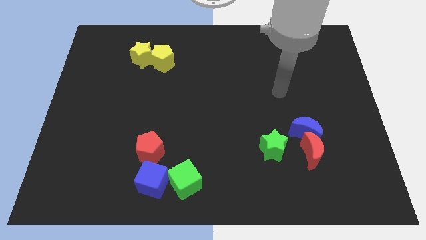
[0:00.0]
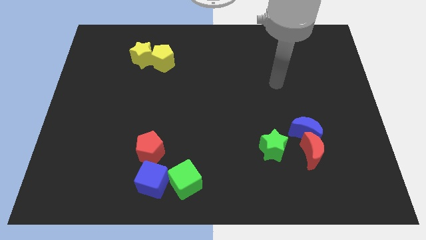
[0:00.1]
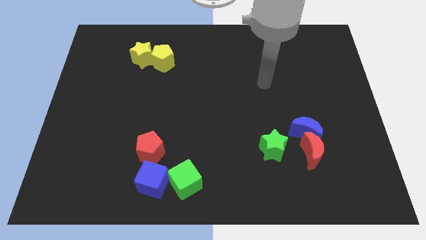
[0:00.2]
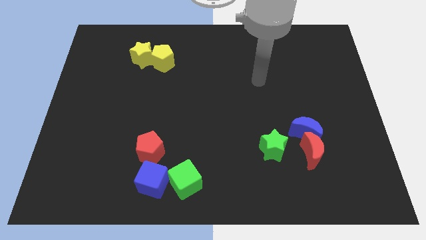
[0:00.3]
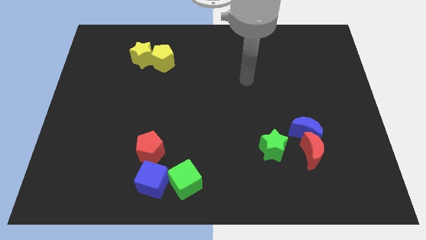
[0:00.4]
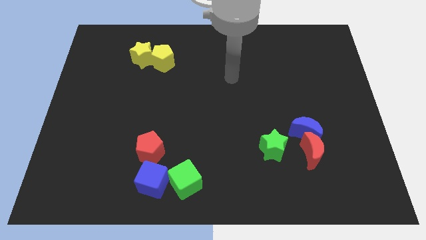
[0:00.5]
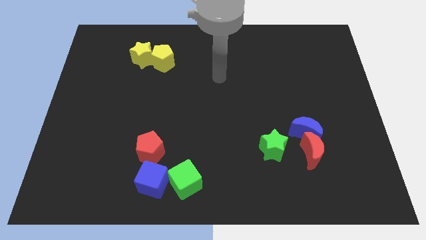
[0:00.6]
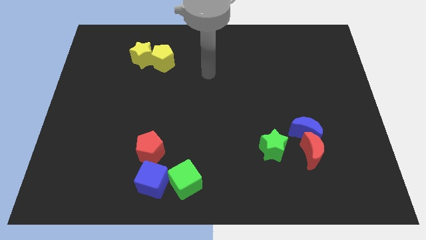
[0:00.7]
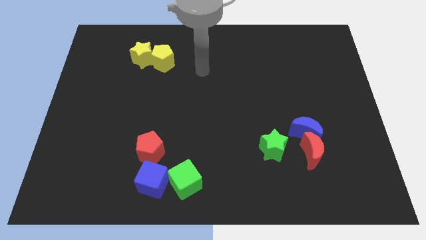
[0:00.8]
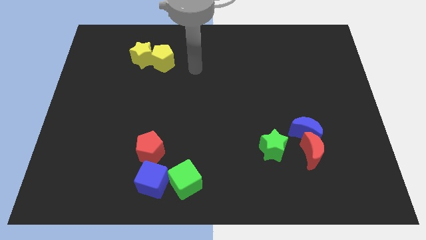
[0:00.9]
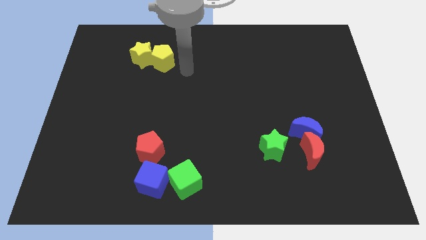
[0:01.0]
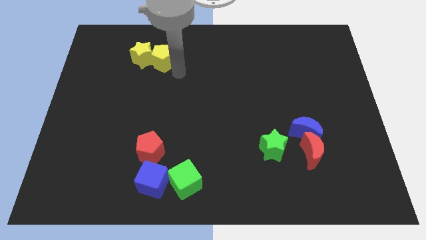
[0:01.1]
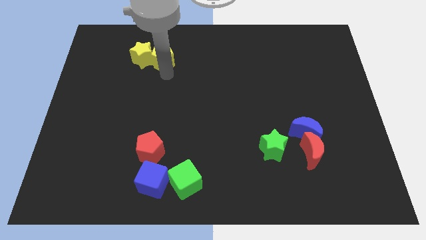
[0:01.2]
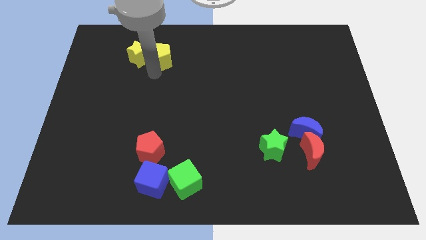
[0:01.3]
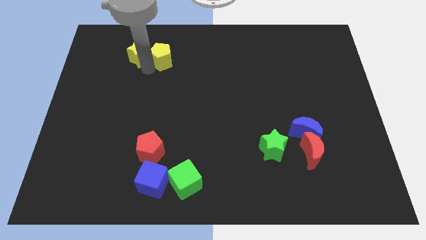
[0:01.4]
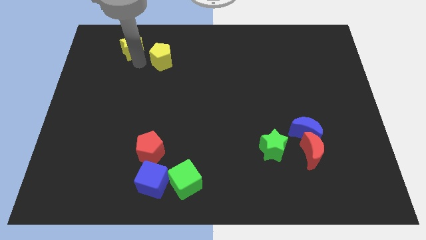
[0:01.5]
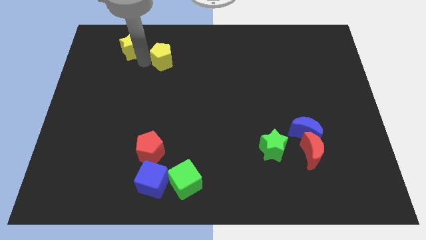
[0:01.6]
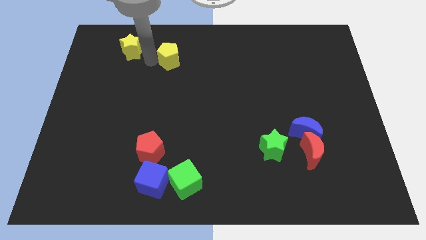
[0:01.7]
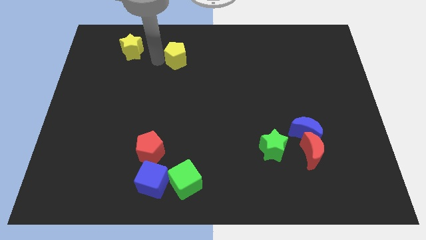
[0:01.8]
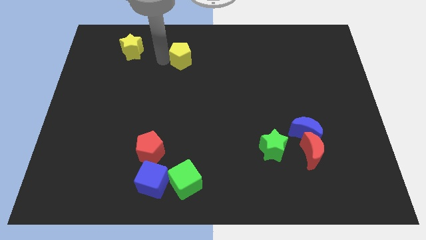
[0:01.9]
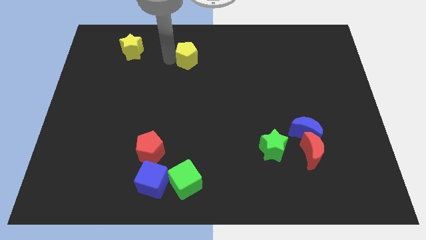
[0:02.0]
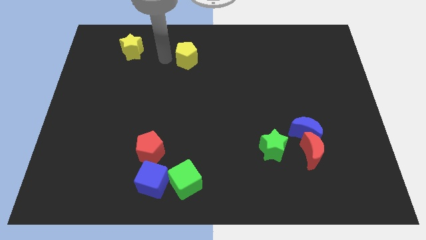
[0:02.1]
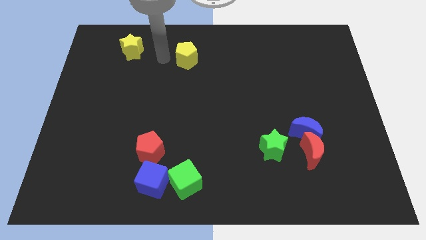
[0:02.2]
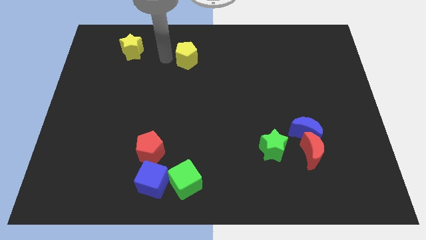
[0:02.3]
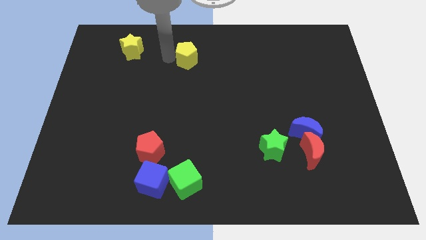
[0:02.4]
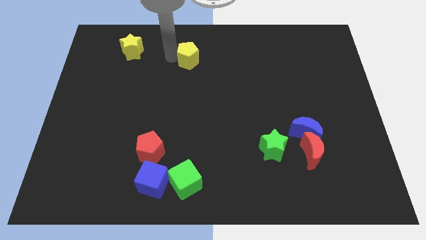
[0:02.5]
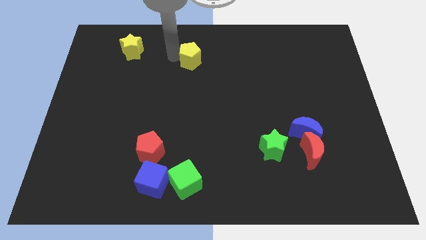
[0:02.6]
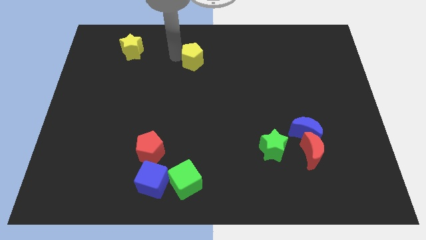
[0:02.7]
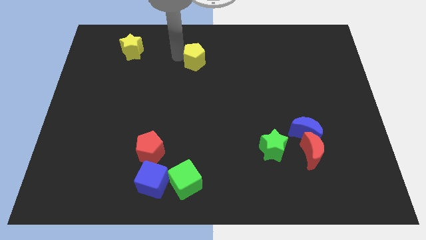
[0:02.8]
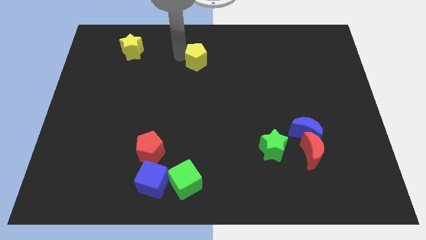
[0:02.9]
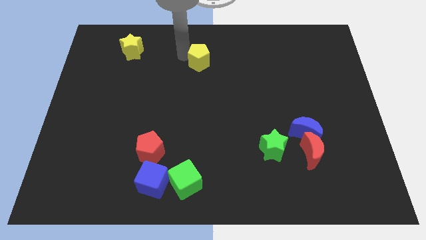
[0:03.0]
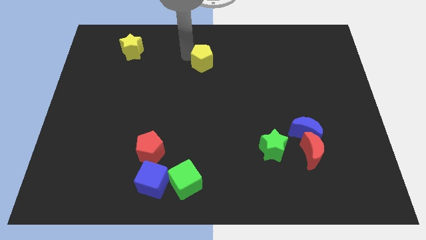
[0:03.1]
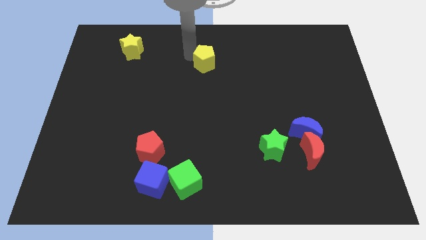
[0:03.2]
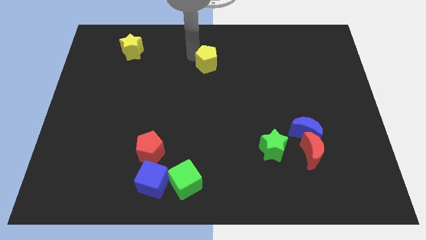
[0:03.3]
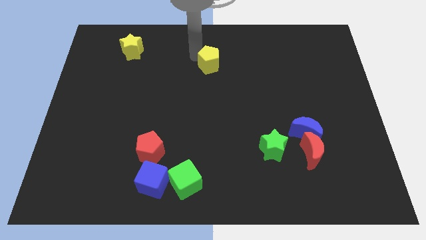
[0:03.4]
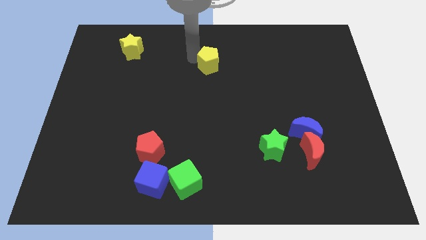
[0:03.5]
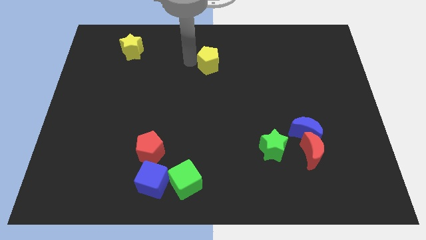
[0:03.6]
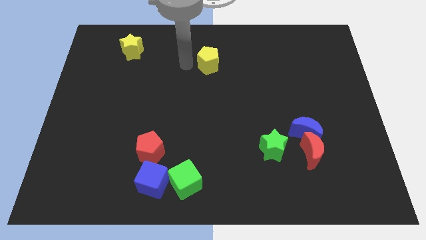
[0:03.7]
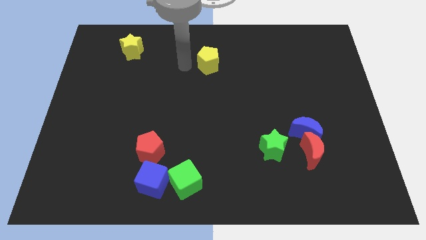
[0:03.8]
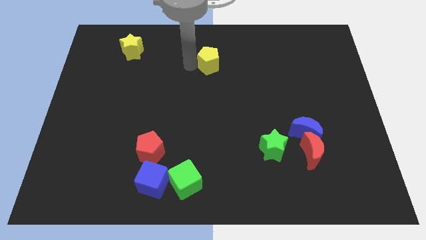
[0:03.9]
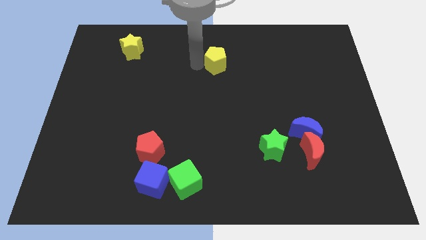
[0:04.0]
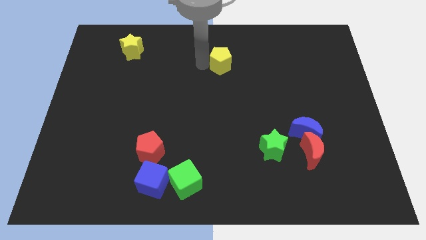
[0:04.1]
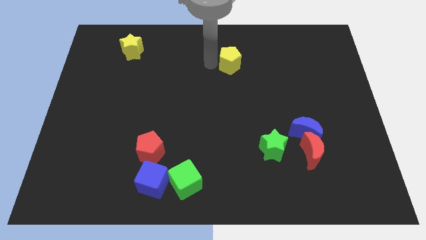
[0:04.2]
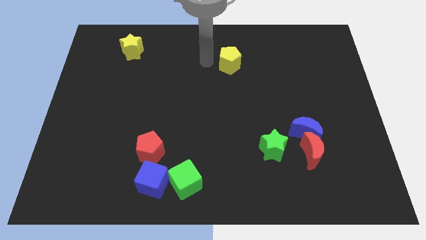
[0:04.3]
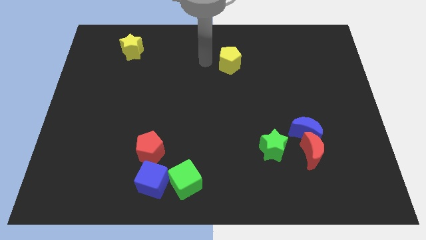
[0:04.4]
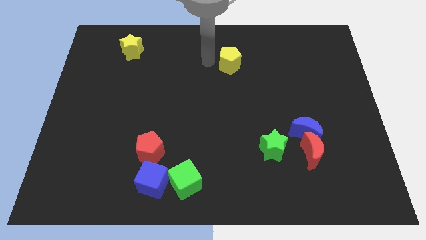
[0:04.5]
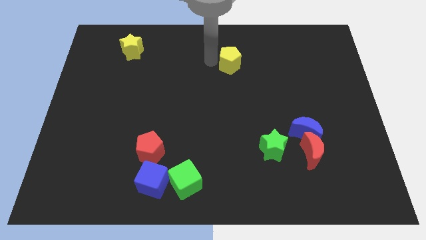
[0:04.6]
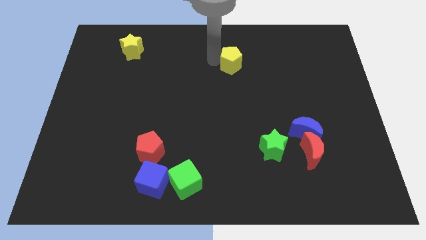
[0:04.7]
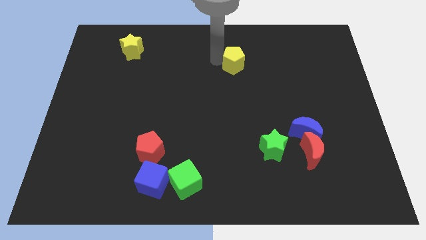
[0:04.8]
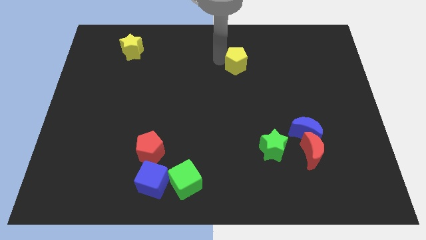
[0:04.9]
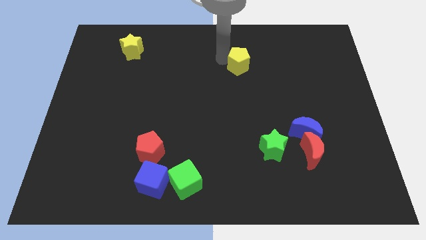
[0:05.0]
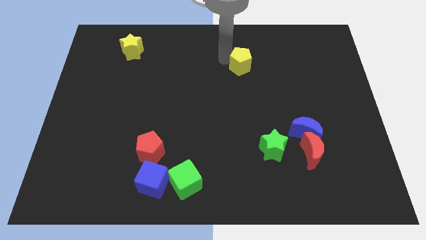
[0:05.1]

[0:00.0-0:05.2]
move the yellow pentagon right

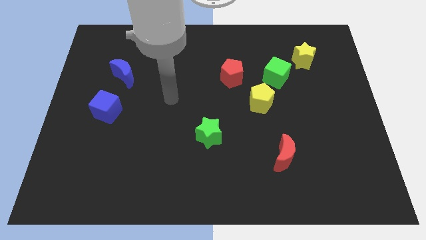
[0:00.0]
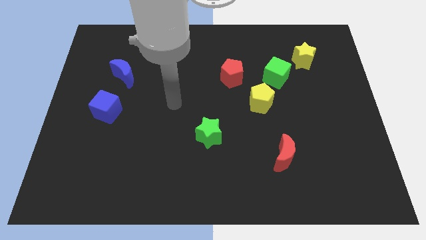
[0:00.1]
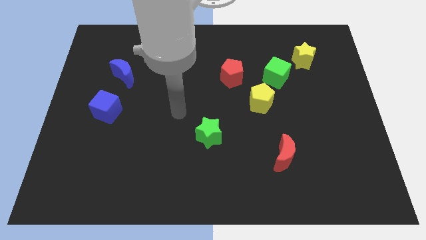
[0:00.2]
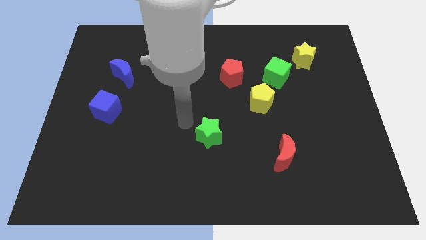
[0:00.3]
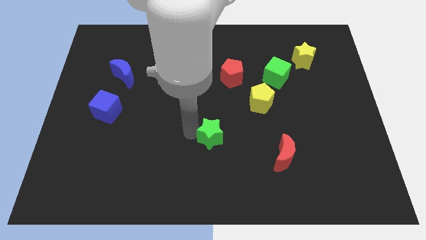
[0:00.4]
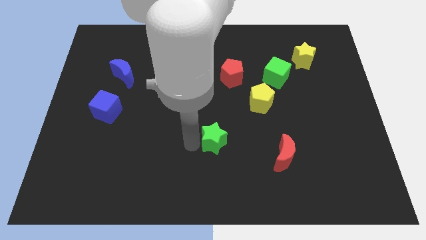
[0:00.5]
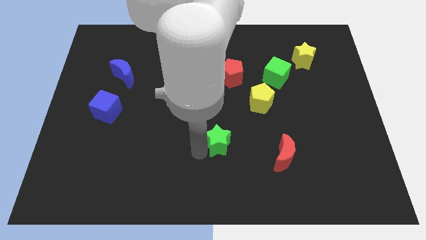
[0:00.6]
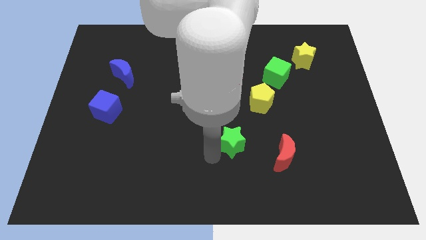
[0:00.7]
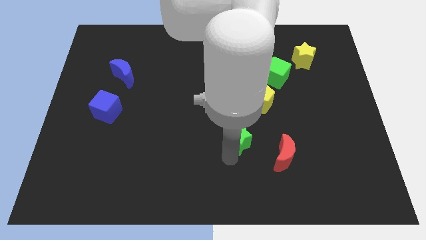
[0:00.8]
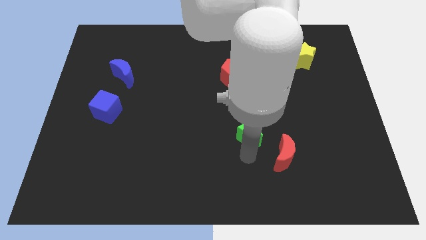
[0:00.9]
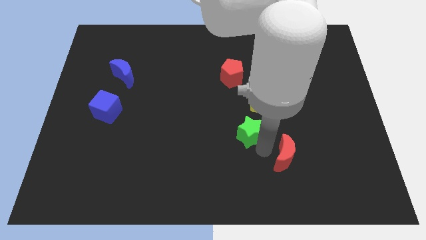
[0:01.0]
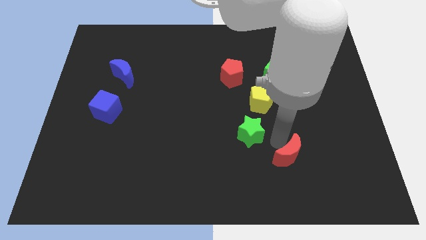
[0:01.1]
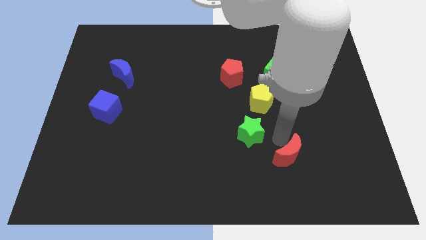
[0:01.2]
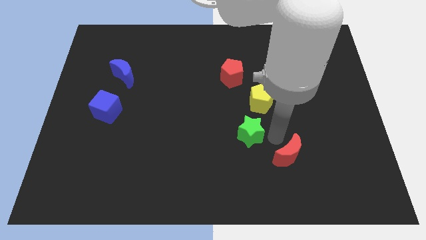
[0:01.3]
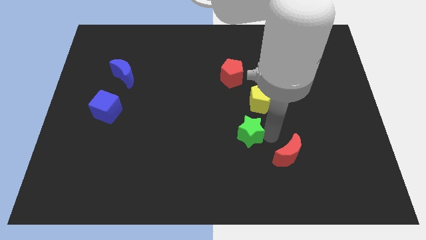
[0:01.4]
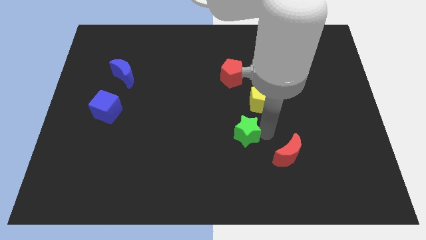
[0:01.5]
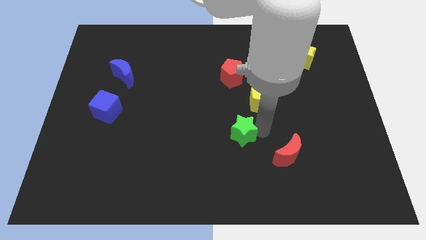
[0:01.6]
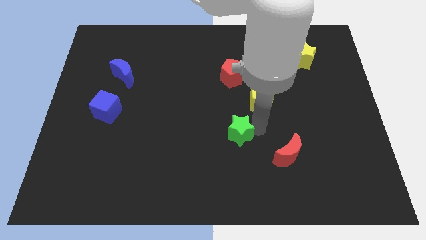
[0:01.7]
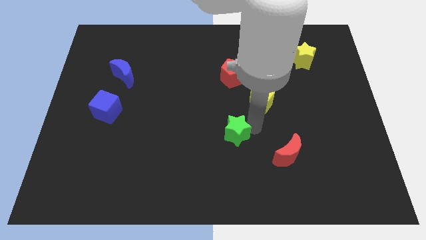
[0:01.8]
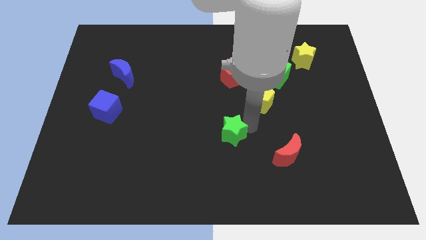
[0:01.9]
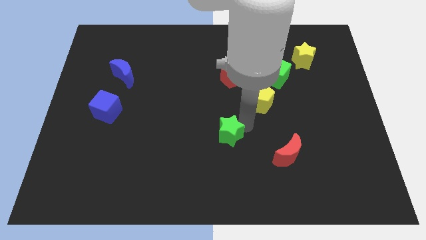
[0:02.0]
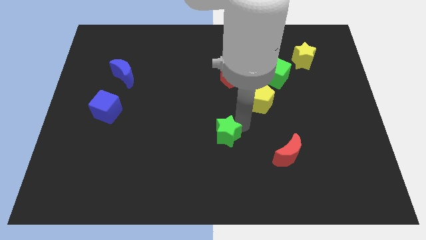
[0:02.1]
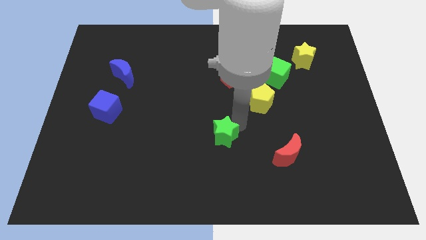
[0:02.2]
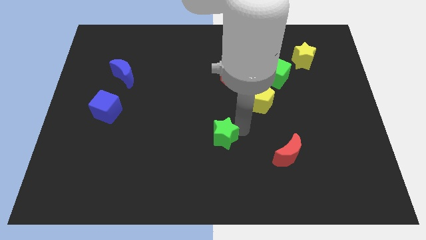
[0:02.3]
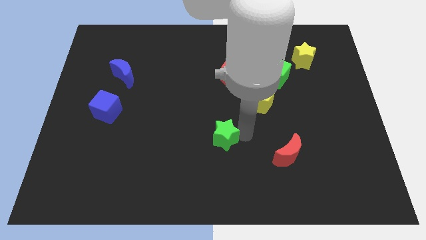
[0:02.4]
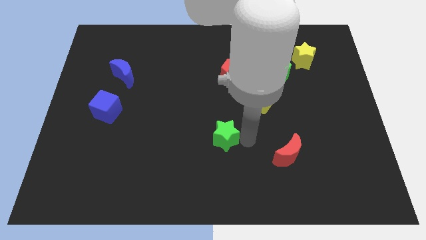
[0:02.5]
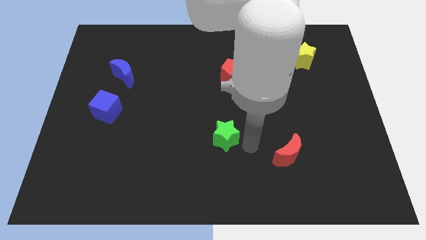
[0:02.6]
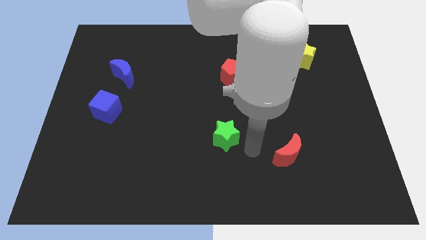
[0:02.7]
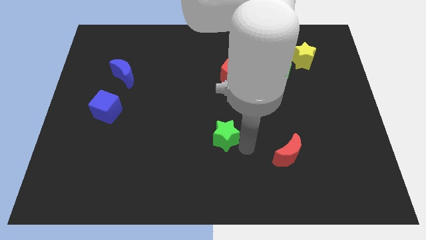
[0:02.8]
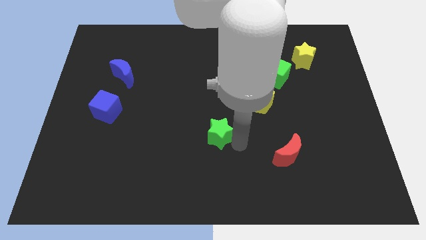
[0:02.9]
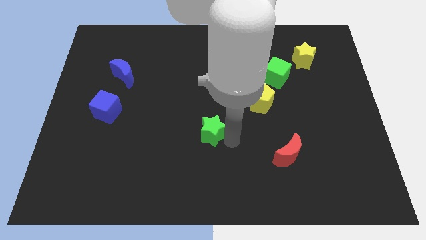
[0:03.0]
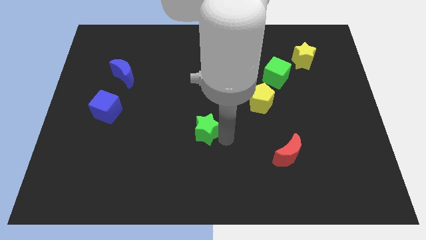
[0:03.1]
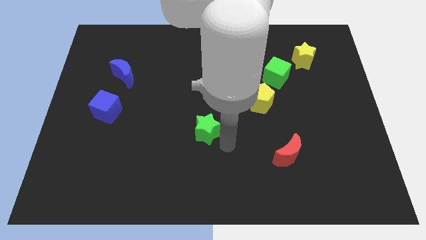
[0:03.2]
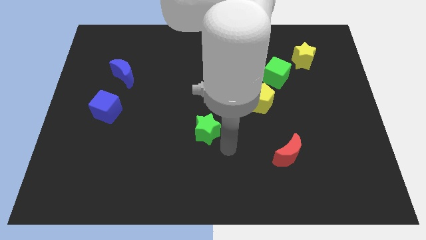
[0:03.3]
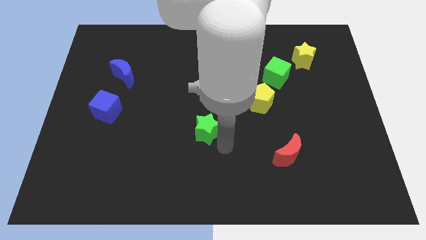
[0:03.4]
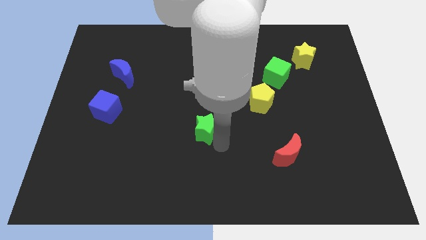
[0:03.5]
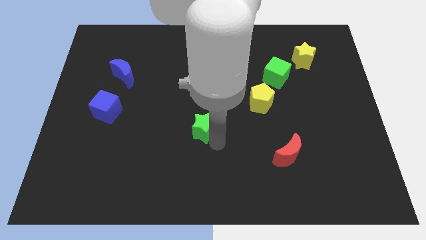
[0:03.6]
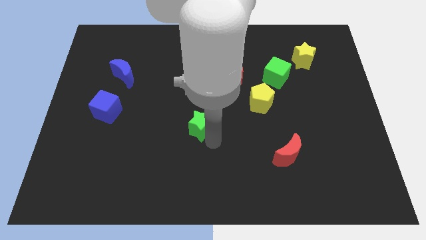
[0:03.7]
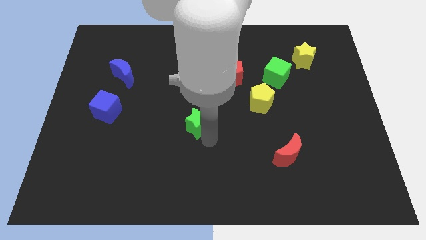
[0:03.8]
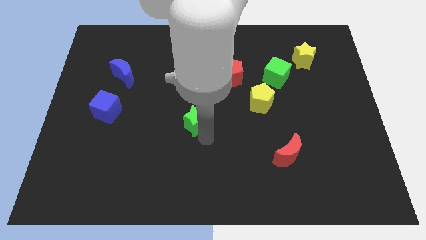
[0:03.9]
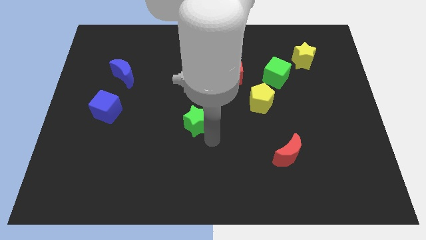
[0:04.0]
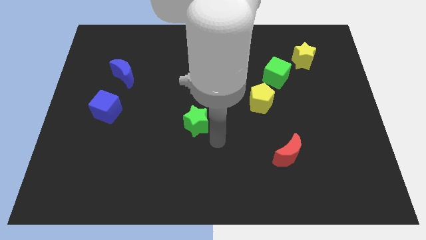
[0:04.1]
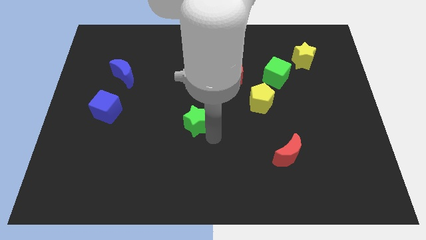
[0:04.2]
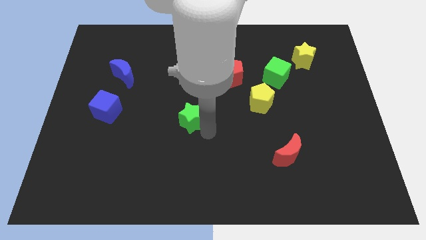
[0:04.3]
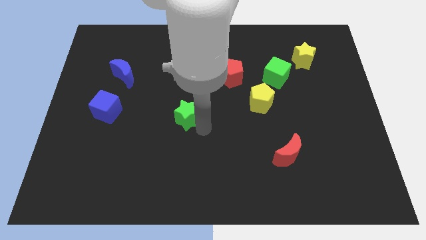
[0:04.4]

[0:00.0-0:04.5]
move the green star up and then to the left a little bit
